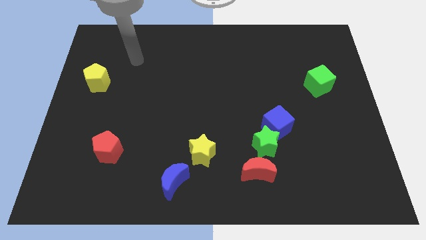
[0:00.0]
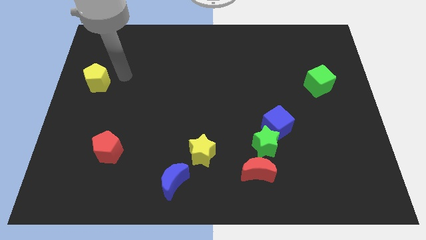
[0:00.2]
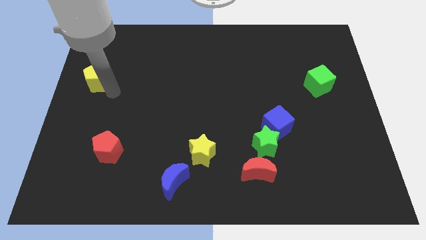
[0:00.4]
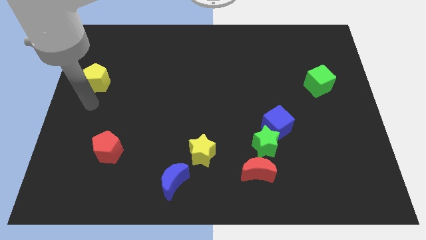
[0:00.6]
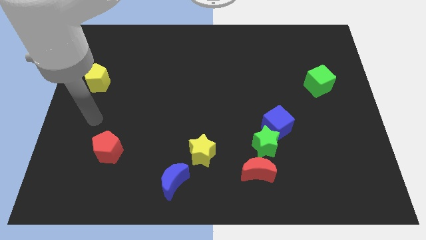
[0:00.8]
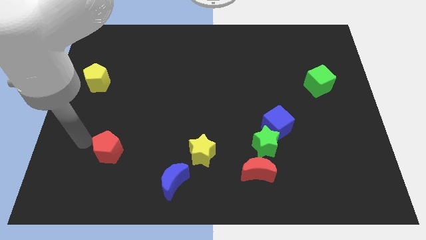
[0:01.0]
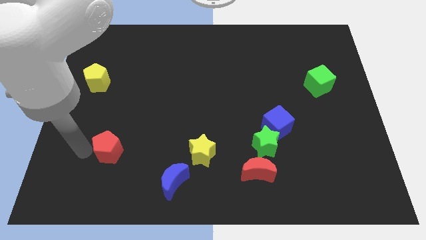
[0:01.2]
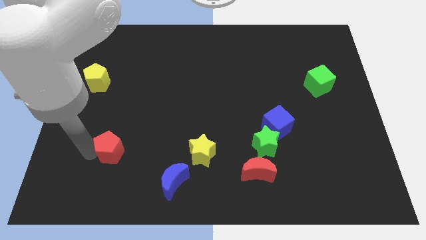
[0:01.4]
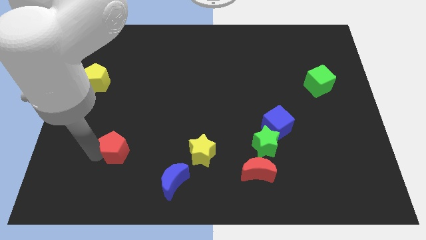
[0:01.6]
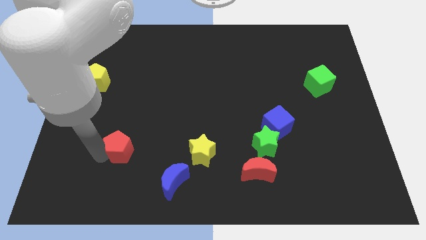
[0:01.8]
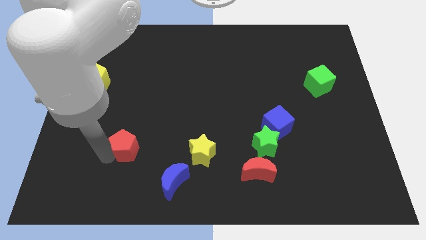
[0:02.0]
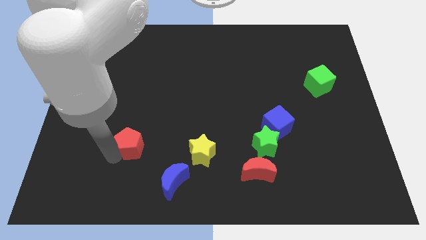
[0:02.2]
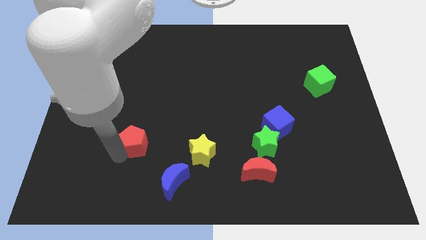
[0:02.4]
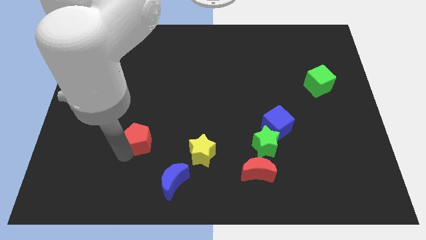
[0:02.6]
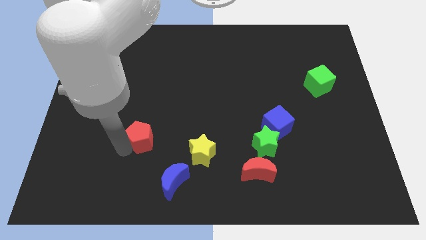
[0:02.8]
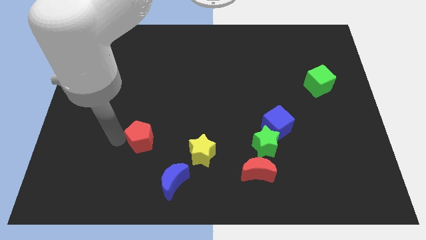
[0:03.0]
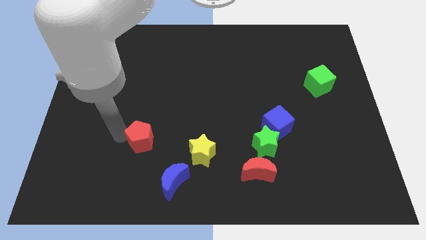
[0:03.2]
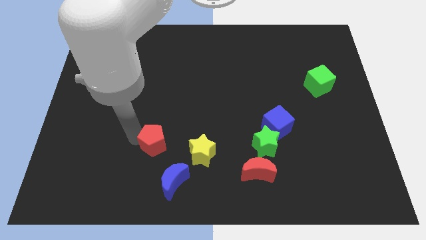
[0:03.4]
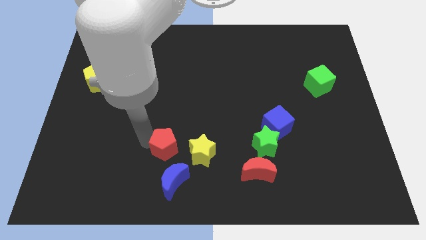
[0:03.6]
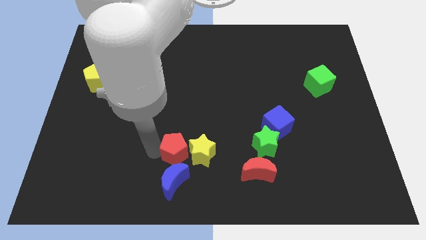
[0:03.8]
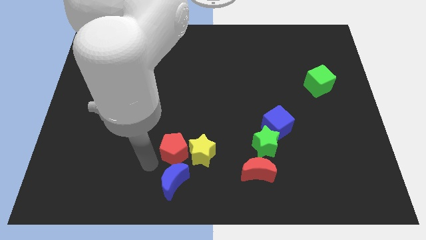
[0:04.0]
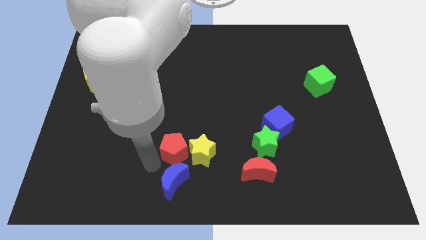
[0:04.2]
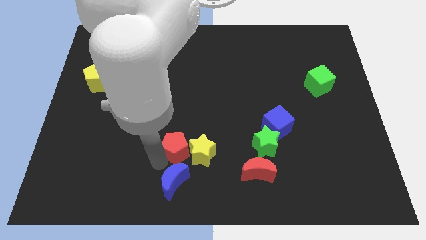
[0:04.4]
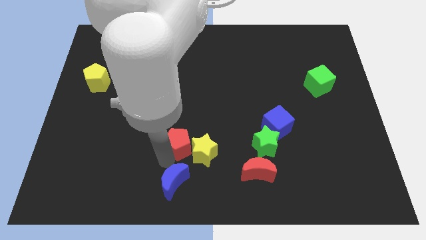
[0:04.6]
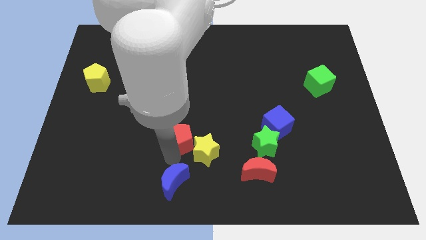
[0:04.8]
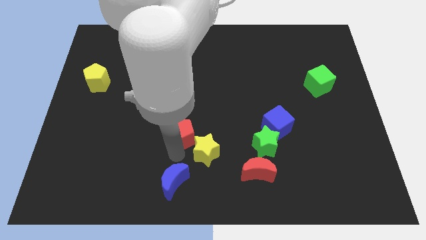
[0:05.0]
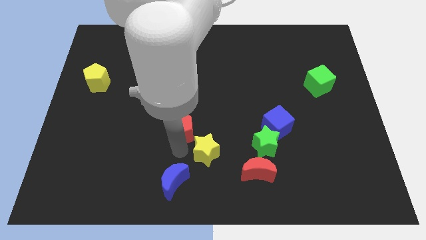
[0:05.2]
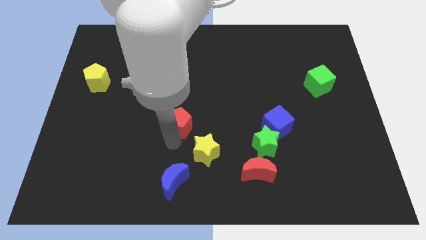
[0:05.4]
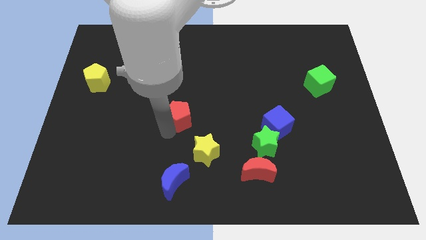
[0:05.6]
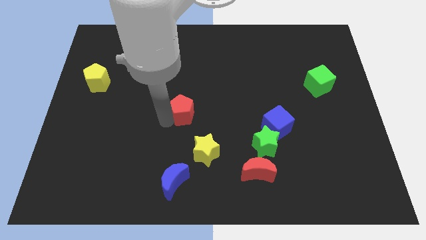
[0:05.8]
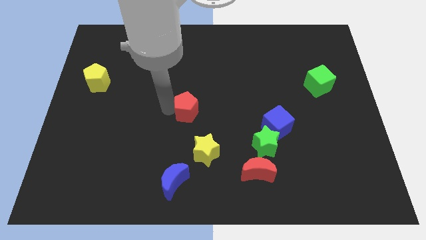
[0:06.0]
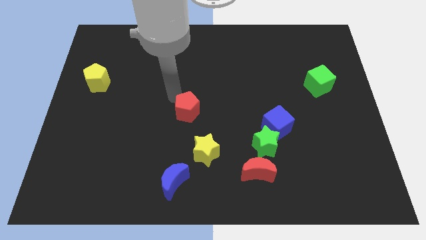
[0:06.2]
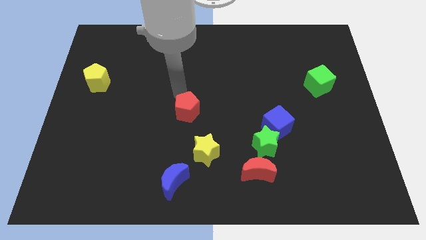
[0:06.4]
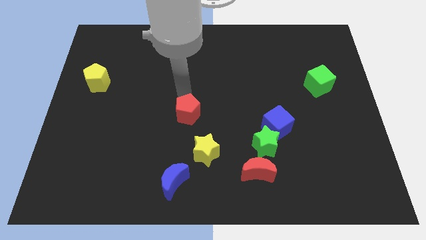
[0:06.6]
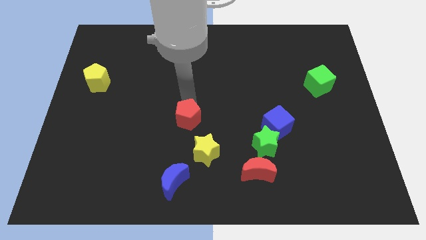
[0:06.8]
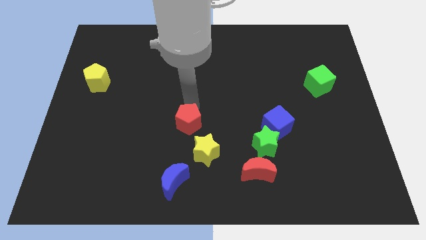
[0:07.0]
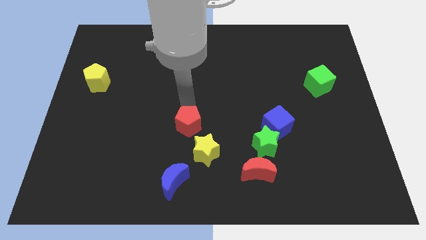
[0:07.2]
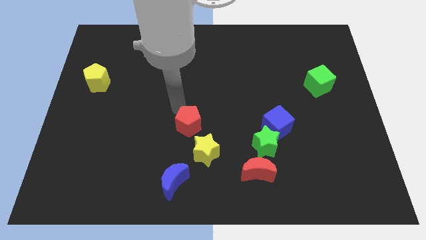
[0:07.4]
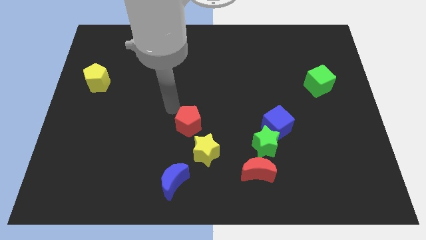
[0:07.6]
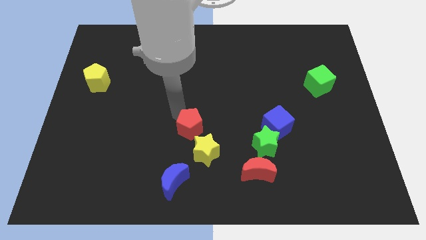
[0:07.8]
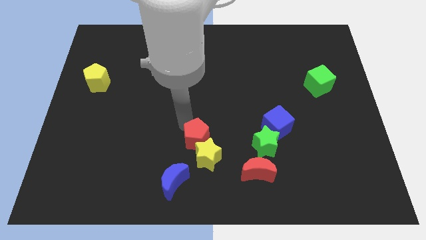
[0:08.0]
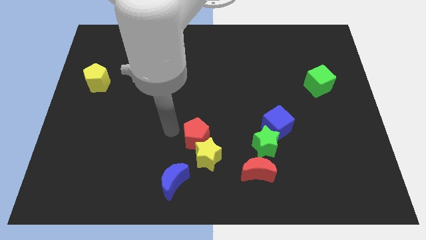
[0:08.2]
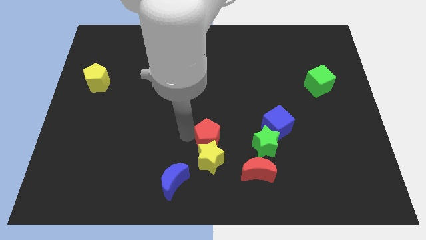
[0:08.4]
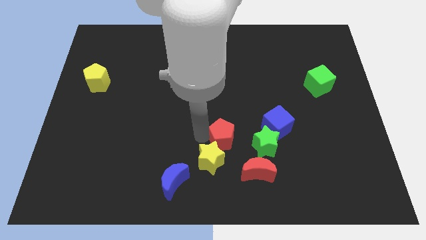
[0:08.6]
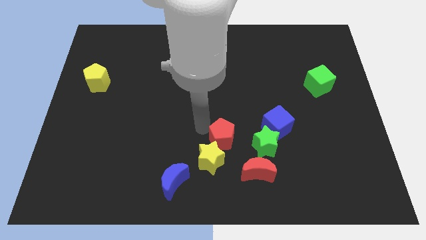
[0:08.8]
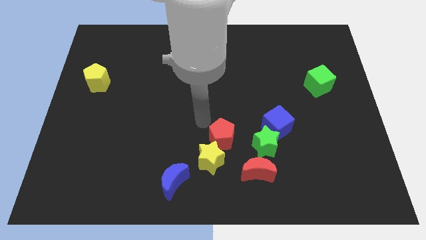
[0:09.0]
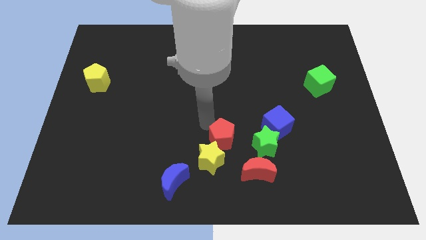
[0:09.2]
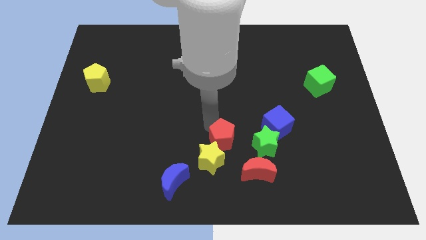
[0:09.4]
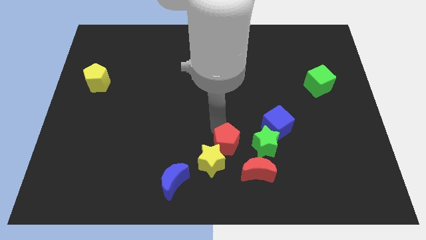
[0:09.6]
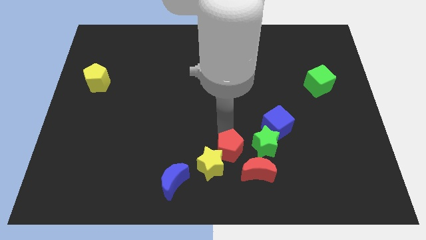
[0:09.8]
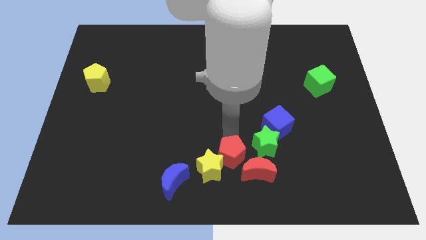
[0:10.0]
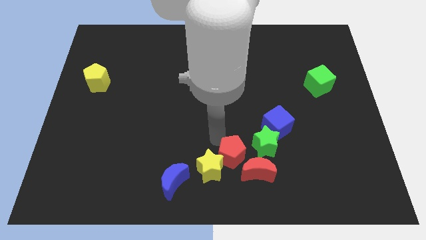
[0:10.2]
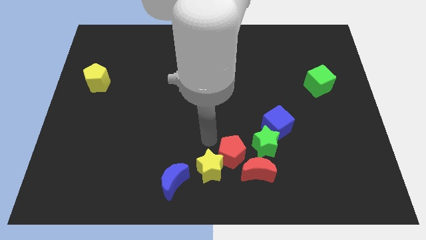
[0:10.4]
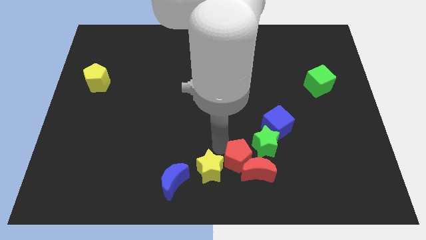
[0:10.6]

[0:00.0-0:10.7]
put the red pentagon to the red moon

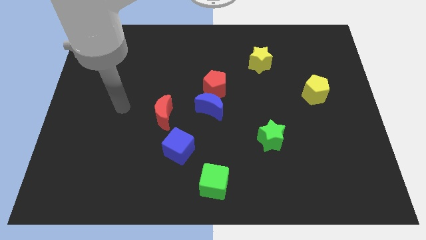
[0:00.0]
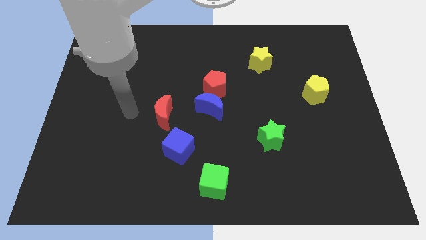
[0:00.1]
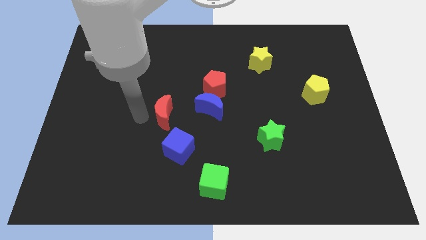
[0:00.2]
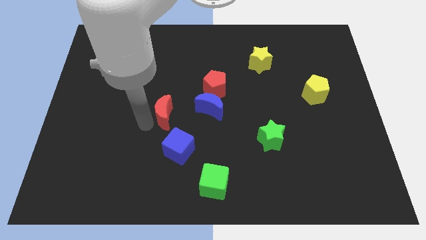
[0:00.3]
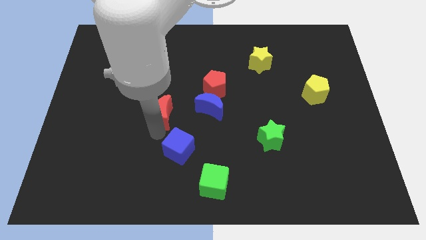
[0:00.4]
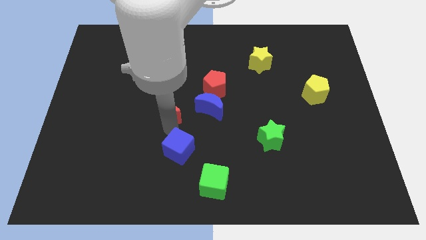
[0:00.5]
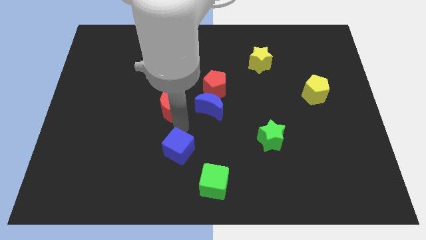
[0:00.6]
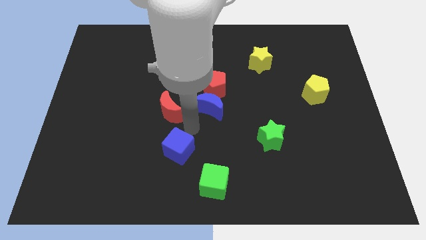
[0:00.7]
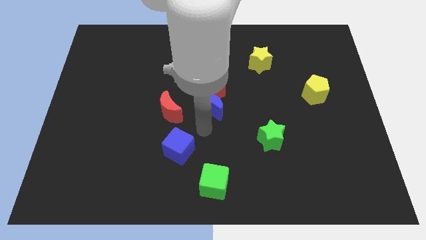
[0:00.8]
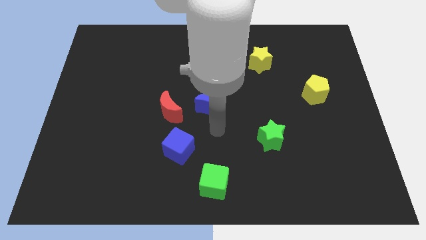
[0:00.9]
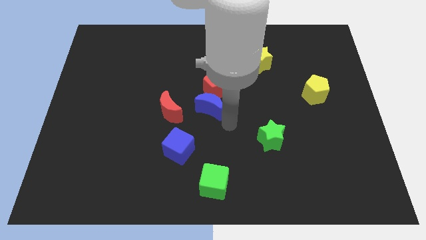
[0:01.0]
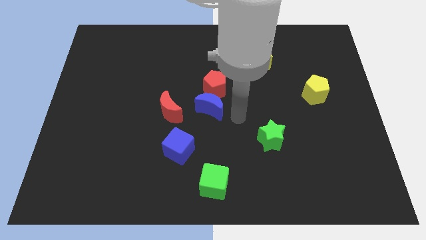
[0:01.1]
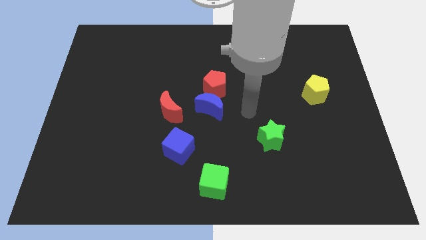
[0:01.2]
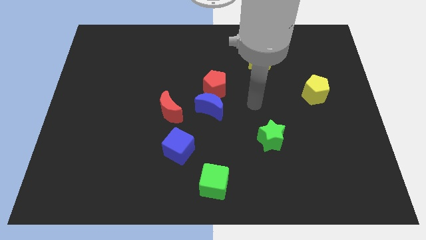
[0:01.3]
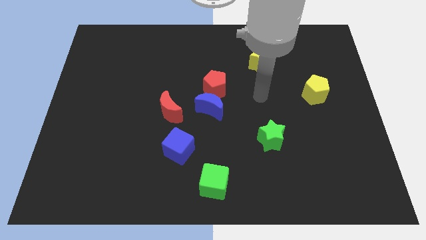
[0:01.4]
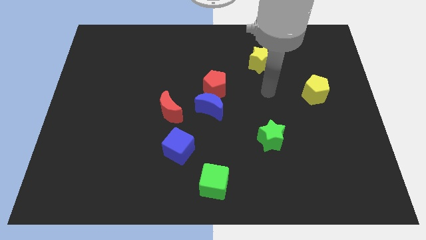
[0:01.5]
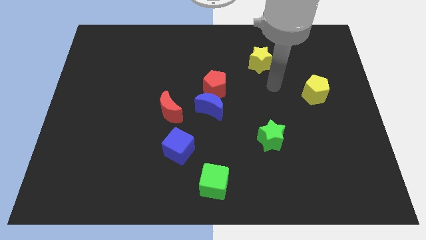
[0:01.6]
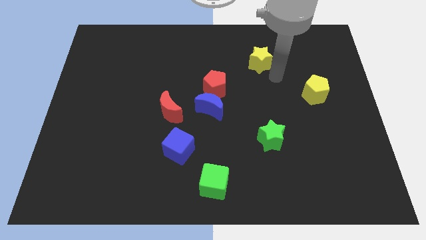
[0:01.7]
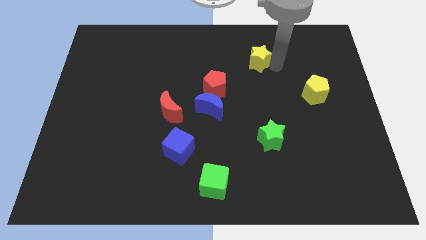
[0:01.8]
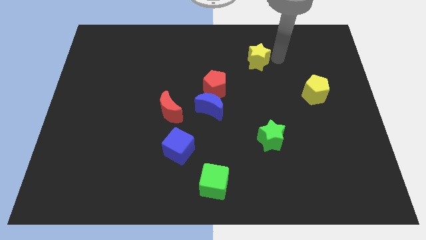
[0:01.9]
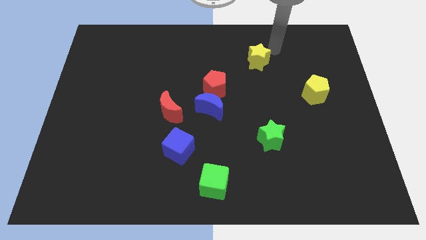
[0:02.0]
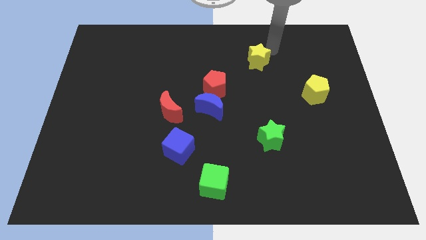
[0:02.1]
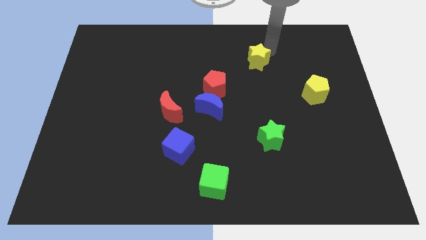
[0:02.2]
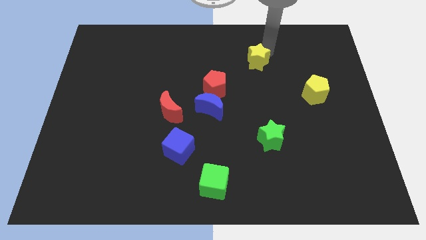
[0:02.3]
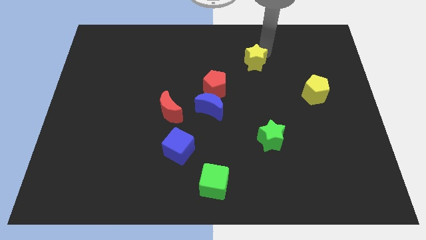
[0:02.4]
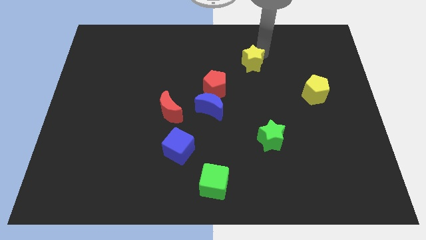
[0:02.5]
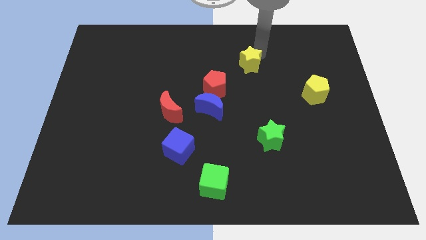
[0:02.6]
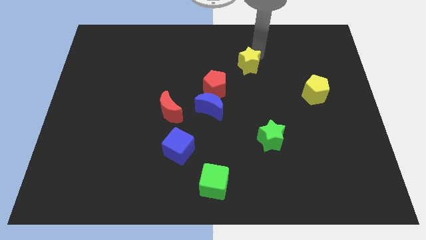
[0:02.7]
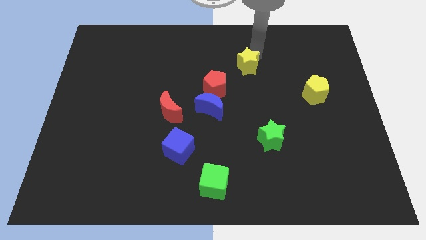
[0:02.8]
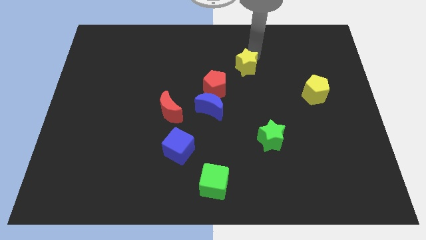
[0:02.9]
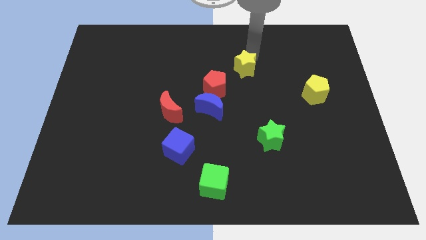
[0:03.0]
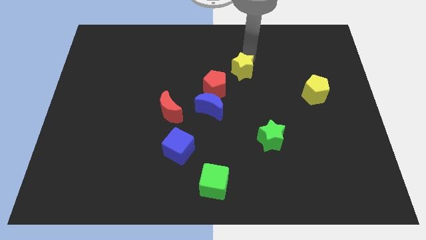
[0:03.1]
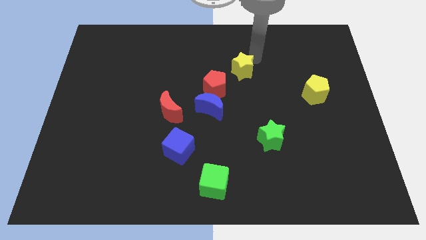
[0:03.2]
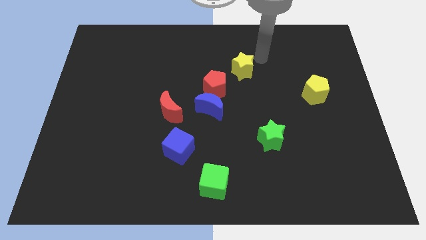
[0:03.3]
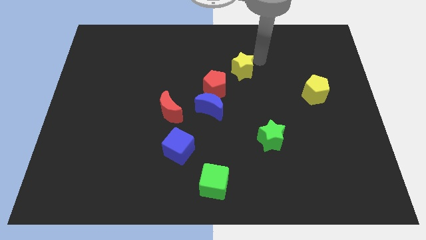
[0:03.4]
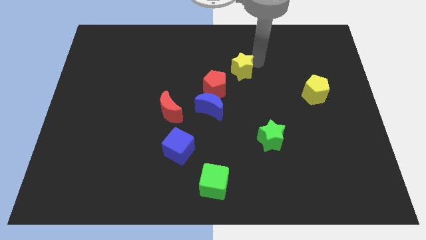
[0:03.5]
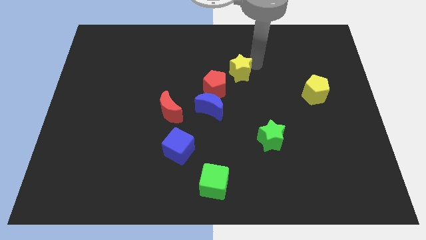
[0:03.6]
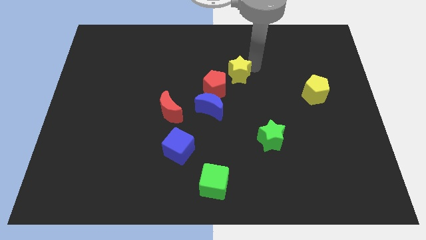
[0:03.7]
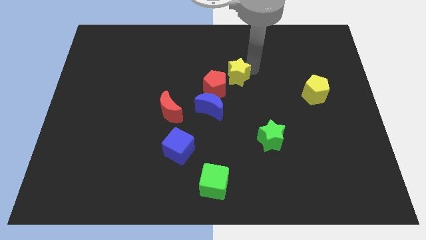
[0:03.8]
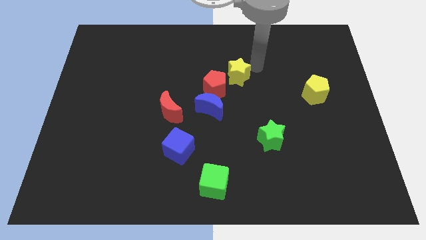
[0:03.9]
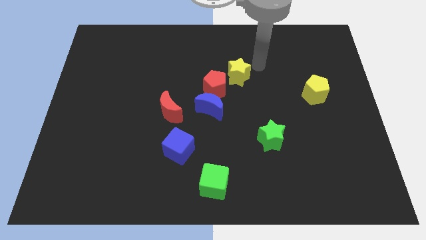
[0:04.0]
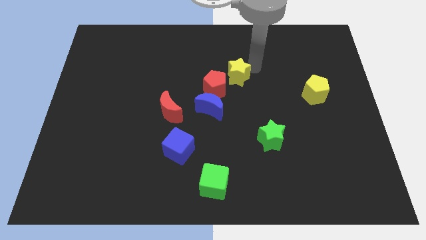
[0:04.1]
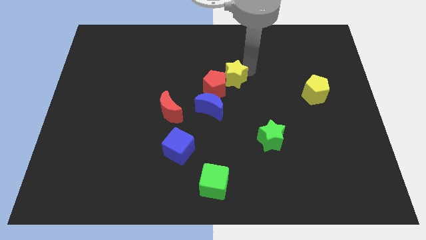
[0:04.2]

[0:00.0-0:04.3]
slide the yellow star next to the red pentagon
